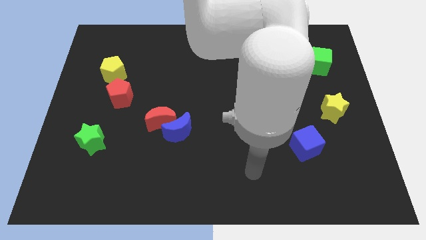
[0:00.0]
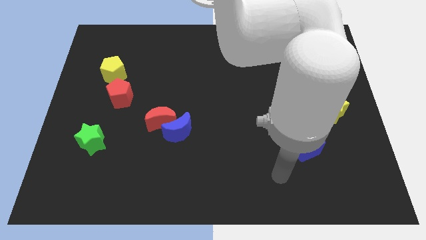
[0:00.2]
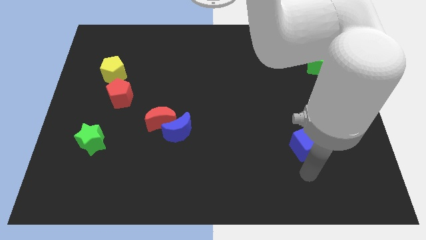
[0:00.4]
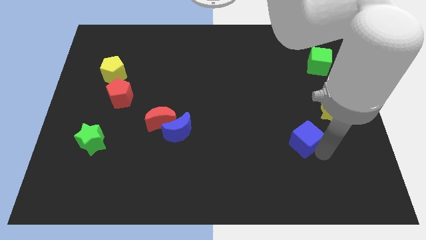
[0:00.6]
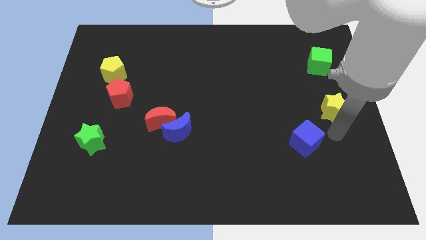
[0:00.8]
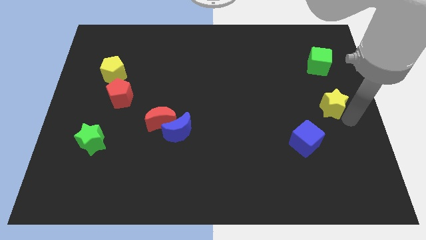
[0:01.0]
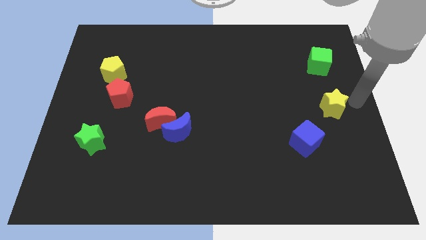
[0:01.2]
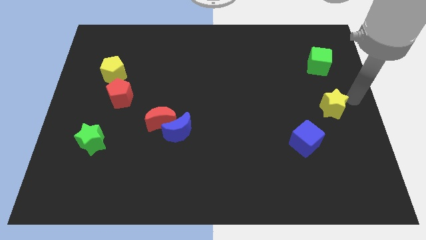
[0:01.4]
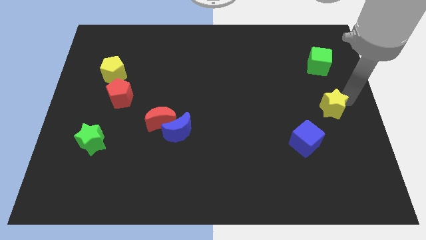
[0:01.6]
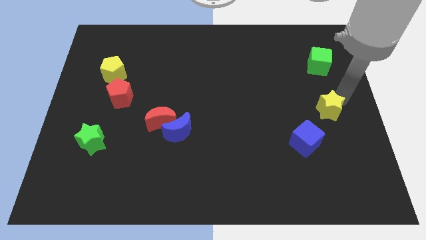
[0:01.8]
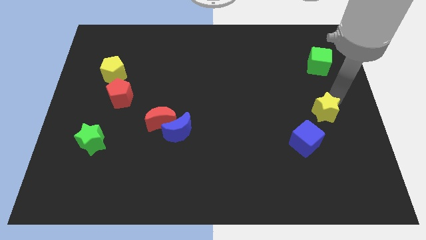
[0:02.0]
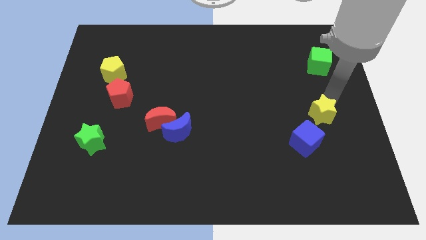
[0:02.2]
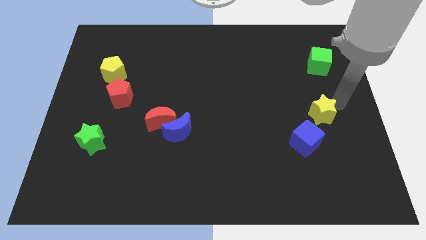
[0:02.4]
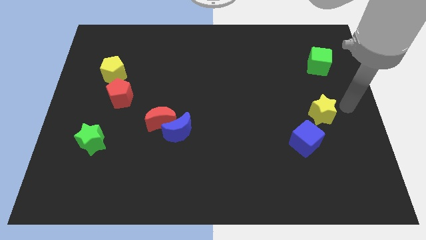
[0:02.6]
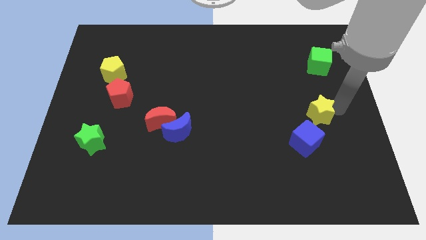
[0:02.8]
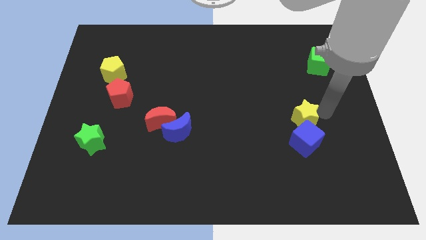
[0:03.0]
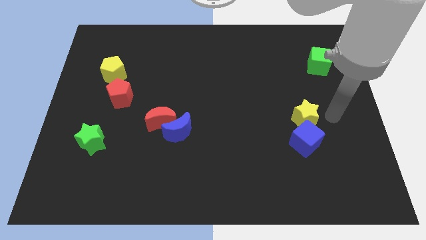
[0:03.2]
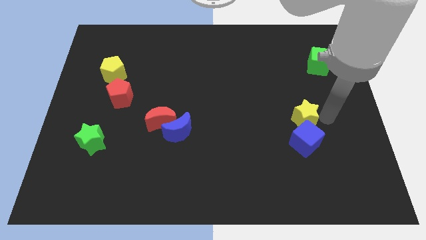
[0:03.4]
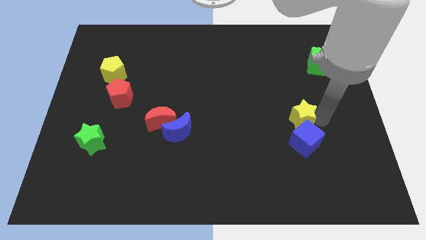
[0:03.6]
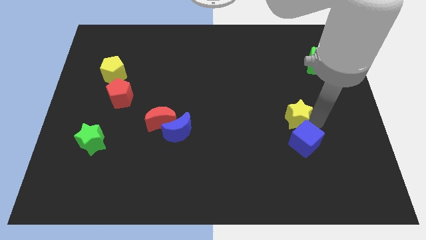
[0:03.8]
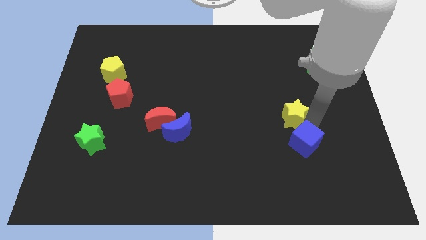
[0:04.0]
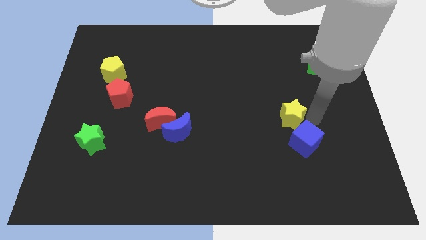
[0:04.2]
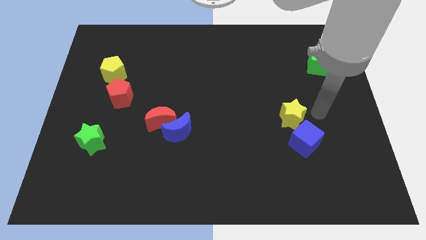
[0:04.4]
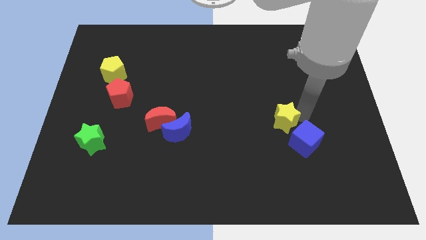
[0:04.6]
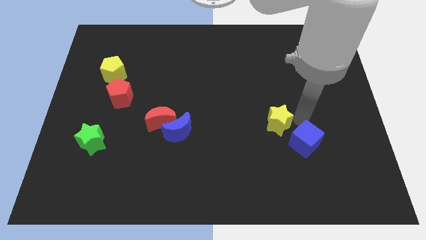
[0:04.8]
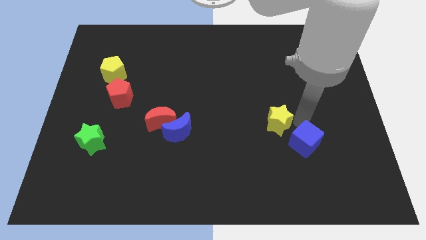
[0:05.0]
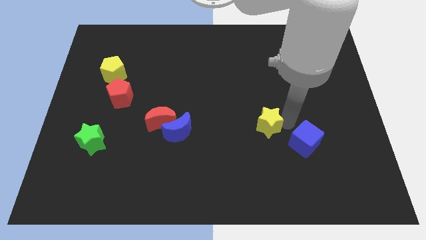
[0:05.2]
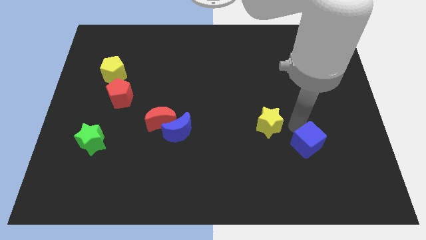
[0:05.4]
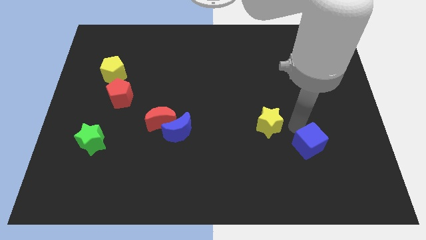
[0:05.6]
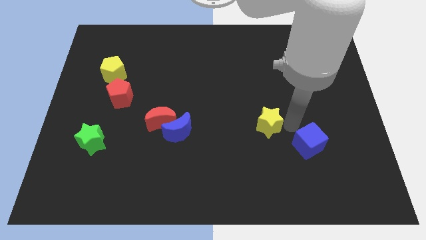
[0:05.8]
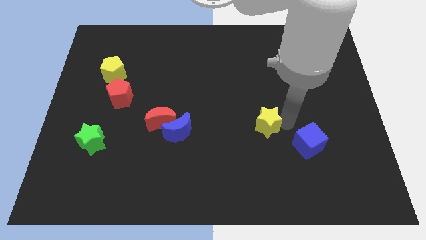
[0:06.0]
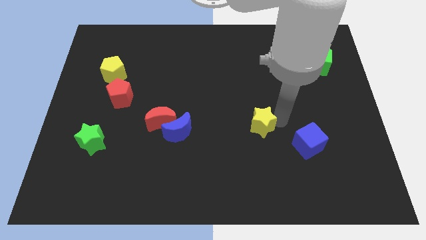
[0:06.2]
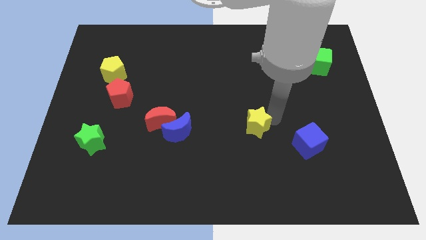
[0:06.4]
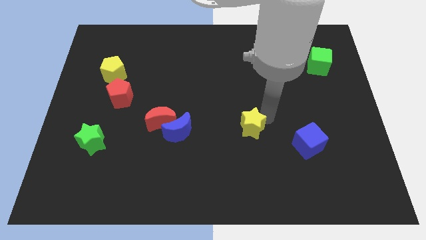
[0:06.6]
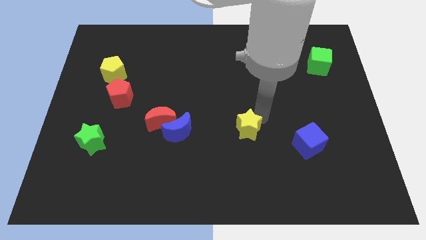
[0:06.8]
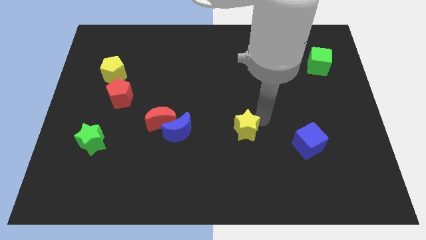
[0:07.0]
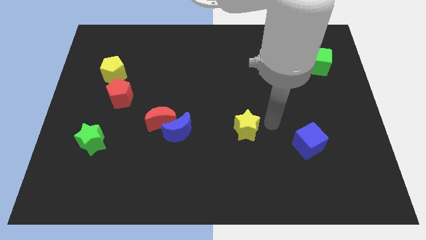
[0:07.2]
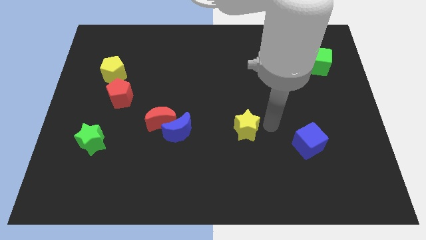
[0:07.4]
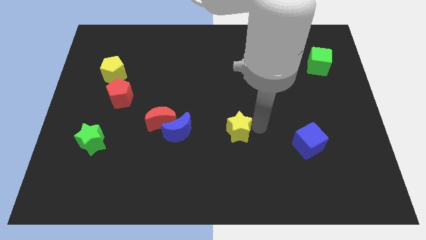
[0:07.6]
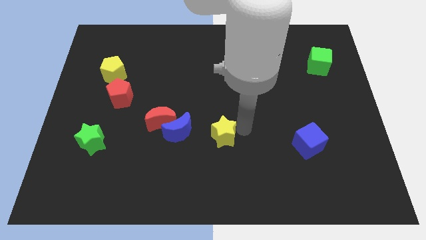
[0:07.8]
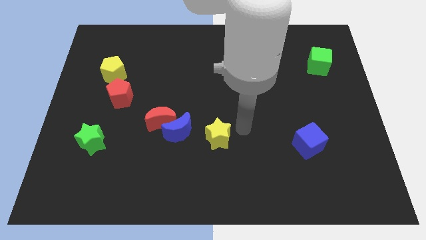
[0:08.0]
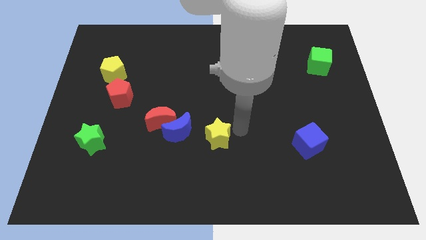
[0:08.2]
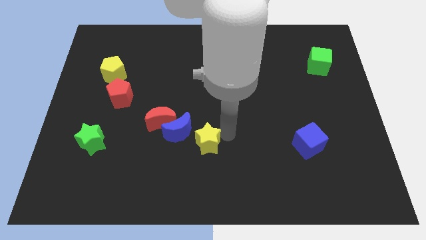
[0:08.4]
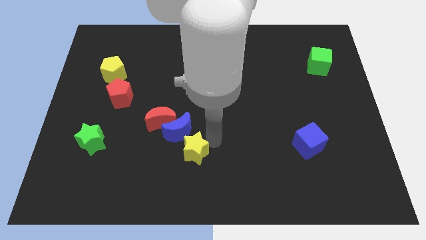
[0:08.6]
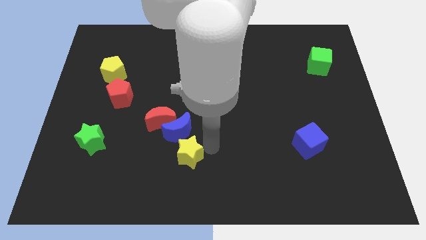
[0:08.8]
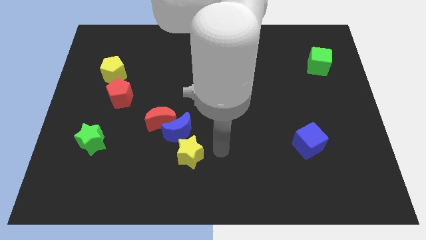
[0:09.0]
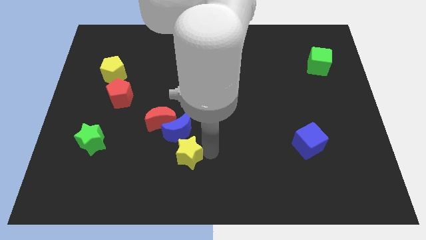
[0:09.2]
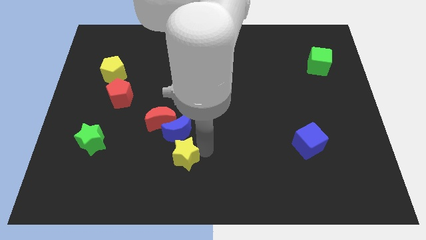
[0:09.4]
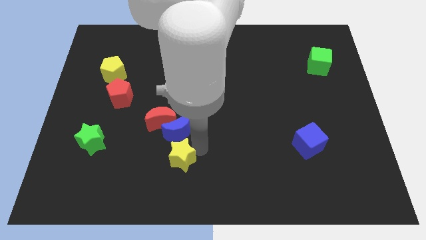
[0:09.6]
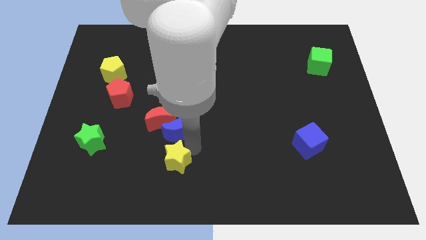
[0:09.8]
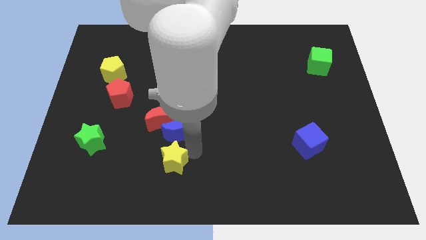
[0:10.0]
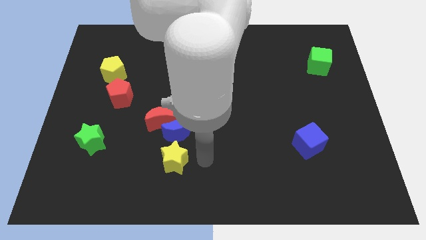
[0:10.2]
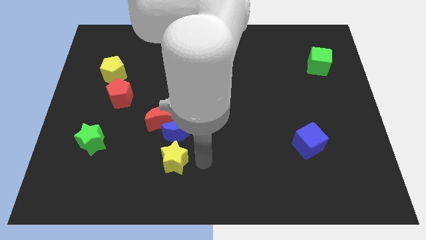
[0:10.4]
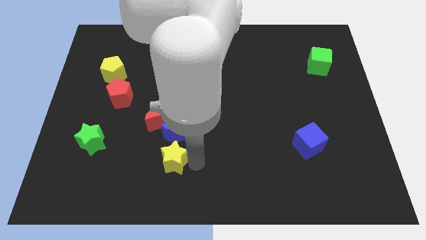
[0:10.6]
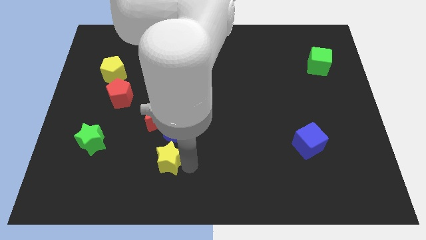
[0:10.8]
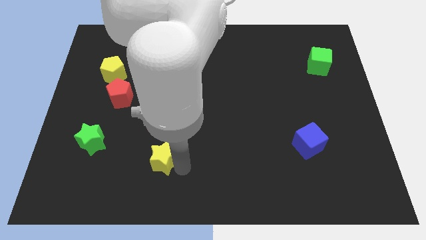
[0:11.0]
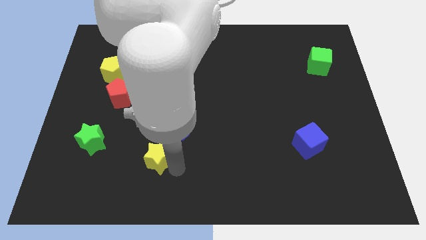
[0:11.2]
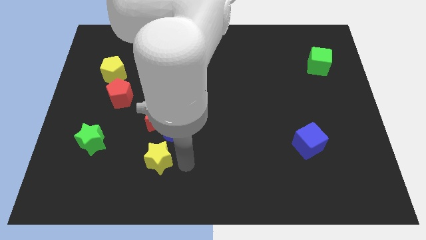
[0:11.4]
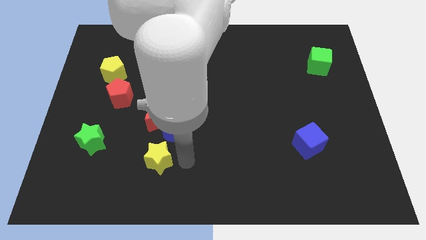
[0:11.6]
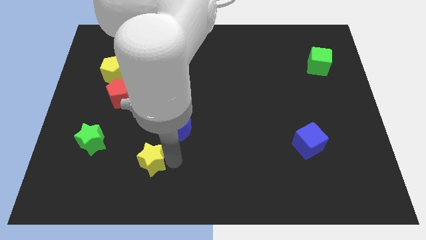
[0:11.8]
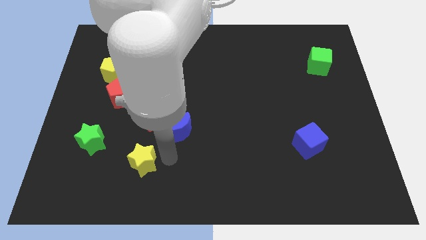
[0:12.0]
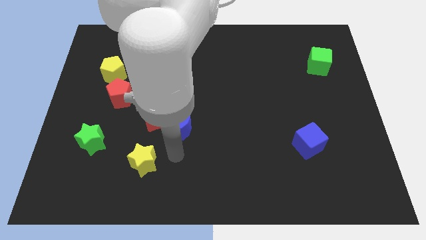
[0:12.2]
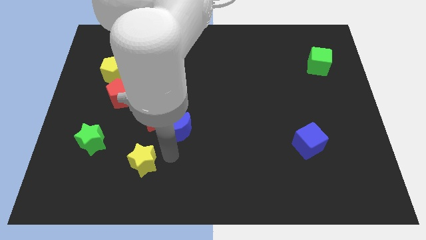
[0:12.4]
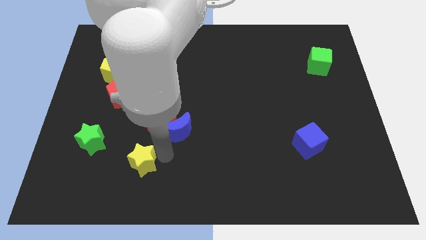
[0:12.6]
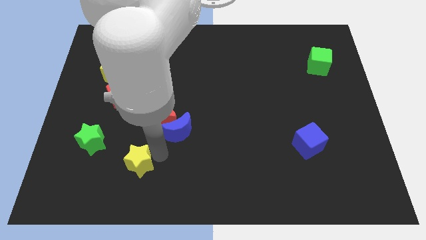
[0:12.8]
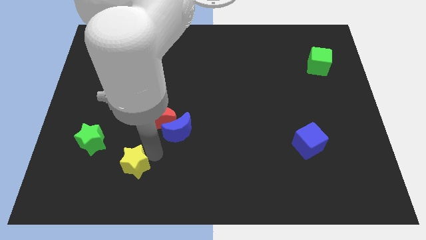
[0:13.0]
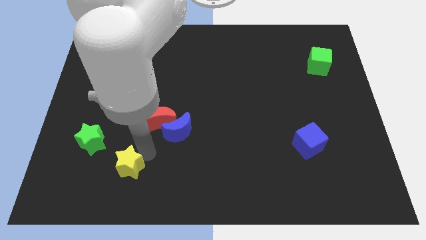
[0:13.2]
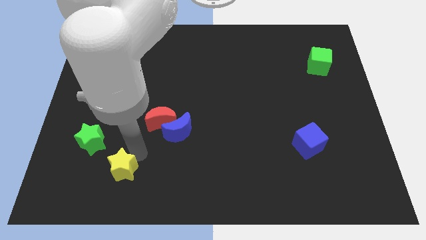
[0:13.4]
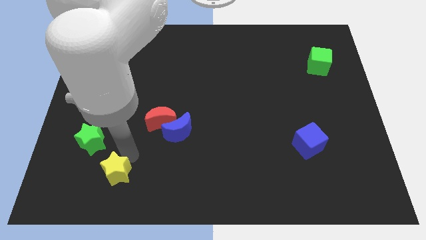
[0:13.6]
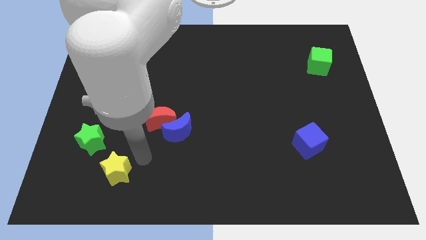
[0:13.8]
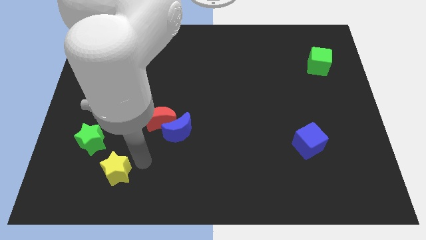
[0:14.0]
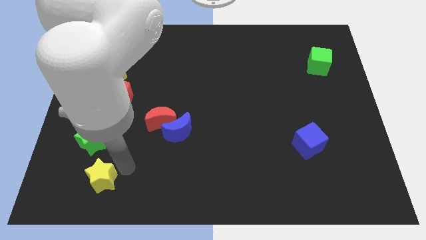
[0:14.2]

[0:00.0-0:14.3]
move the yellow star to the bottom side of the green star
